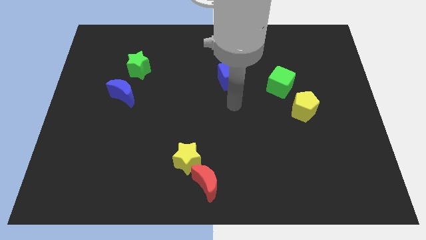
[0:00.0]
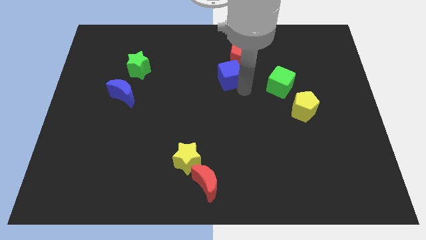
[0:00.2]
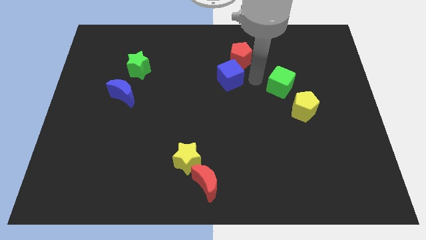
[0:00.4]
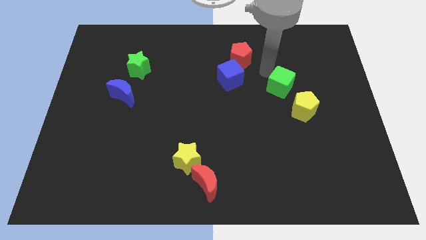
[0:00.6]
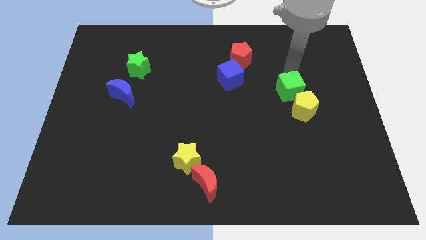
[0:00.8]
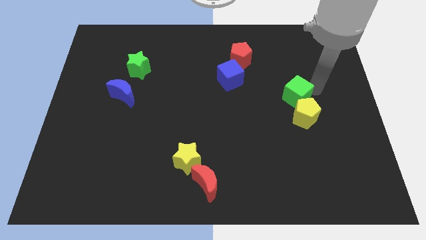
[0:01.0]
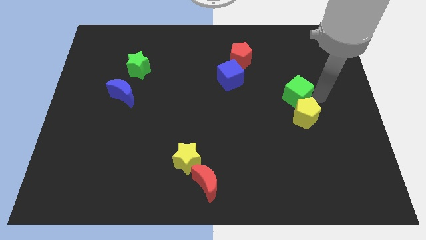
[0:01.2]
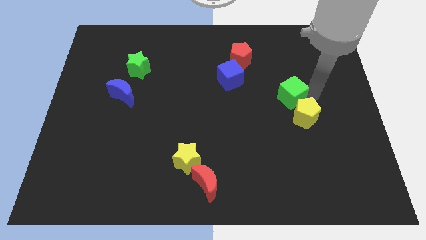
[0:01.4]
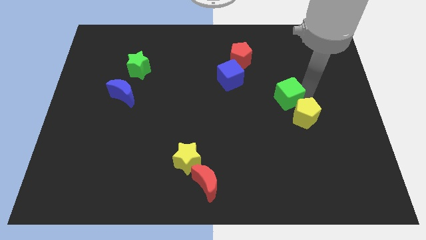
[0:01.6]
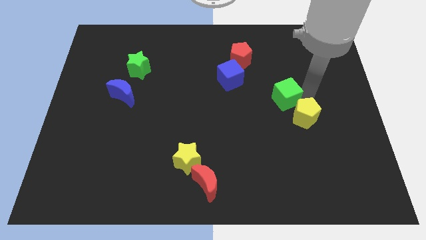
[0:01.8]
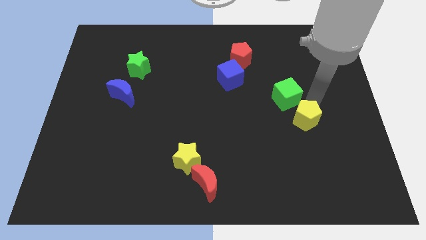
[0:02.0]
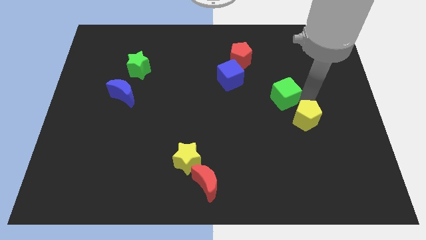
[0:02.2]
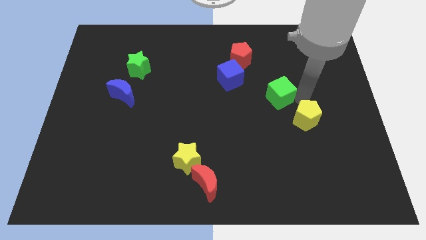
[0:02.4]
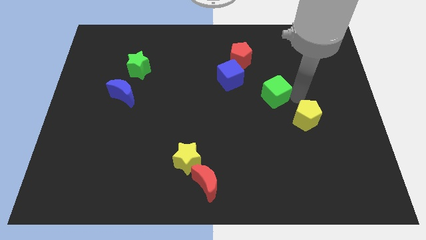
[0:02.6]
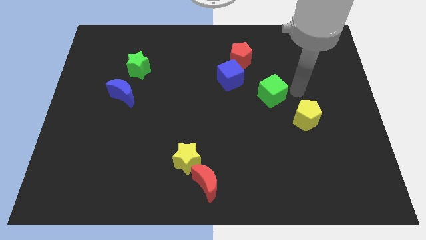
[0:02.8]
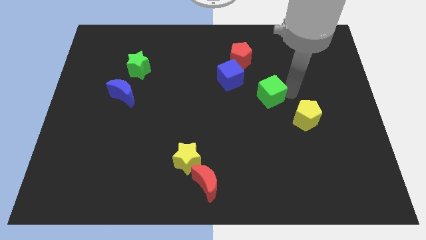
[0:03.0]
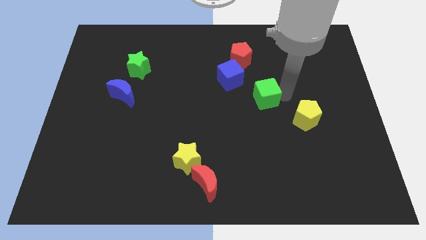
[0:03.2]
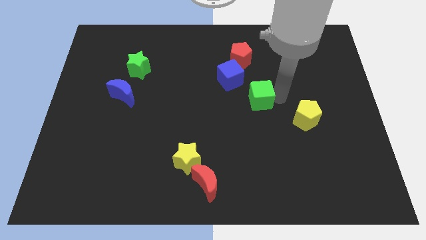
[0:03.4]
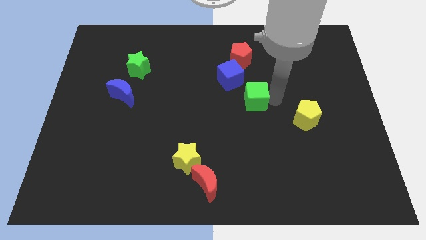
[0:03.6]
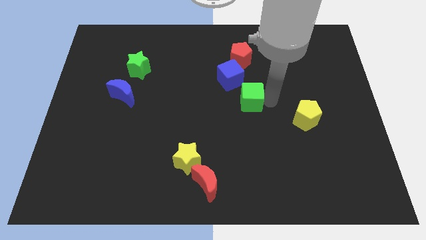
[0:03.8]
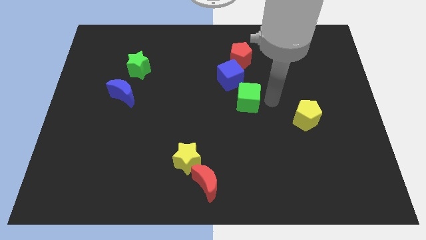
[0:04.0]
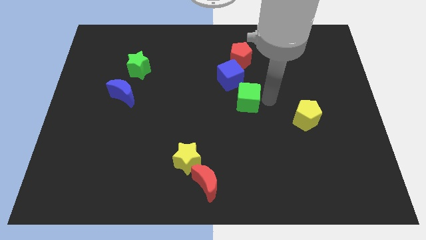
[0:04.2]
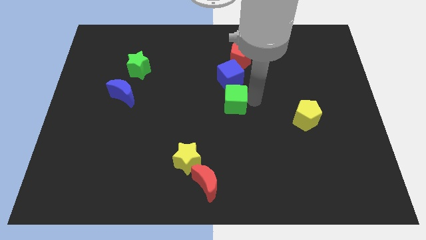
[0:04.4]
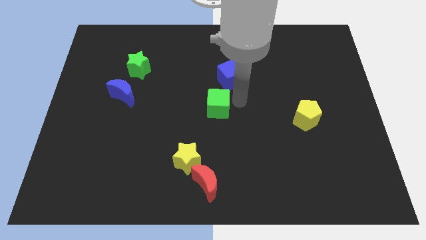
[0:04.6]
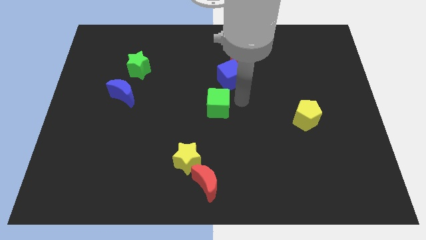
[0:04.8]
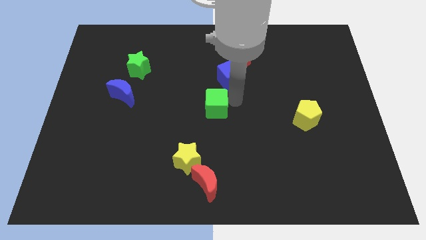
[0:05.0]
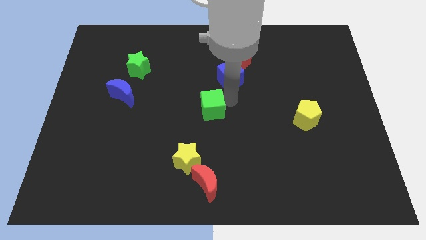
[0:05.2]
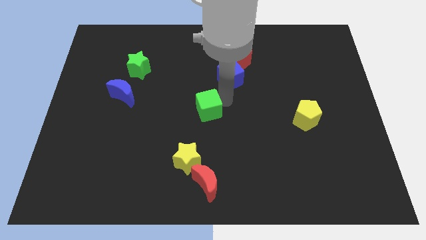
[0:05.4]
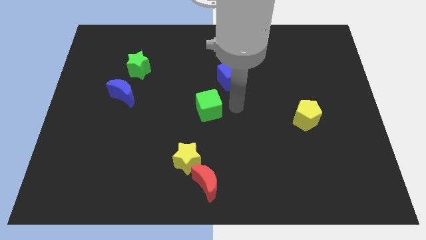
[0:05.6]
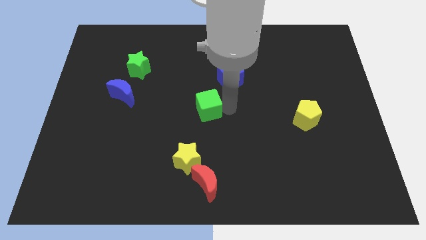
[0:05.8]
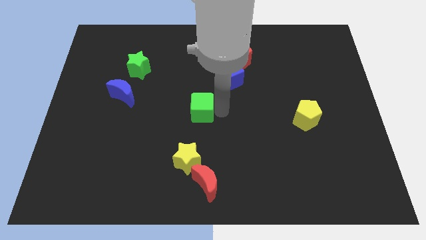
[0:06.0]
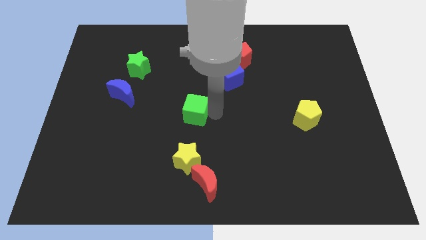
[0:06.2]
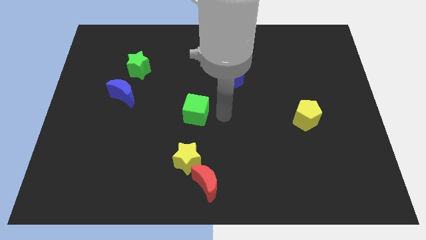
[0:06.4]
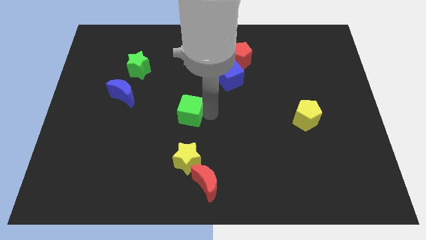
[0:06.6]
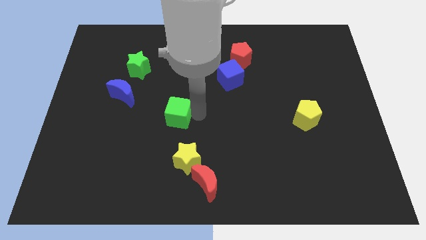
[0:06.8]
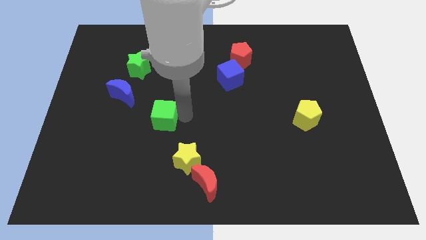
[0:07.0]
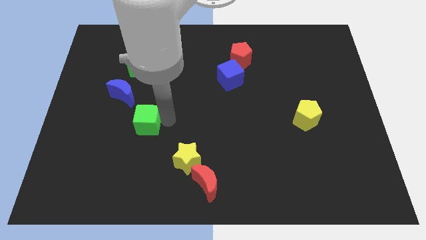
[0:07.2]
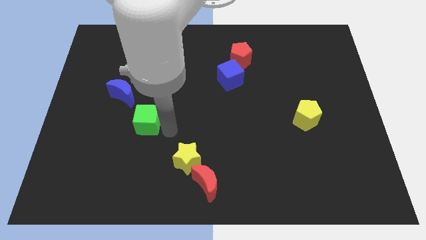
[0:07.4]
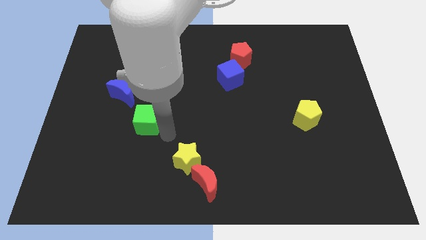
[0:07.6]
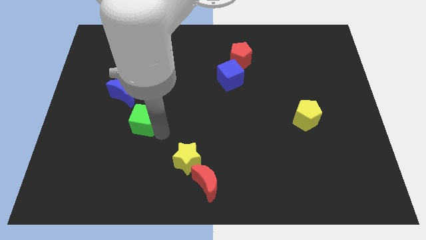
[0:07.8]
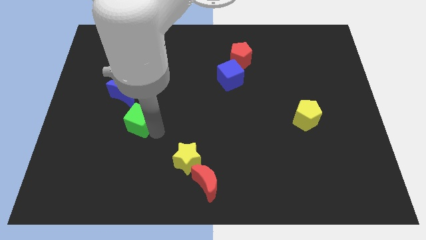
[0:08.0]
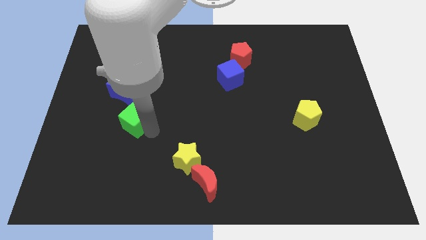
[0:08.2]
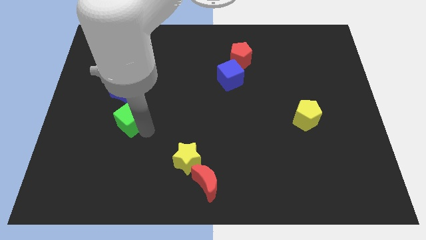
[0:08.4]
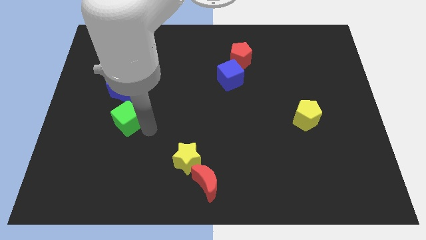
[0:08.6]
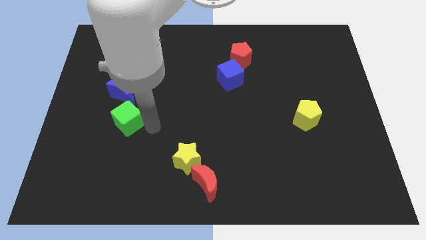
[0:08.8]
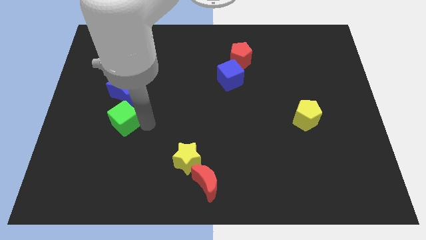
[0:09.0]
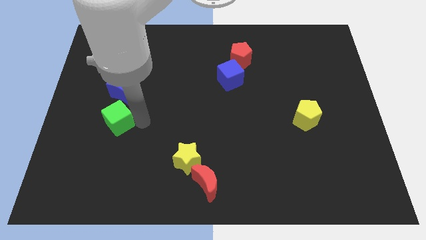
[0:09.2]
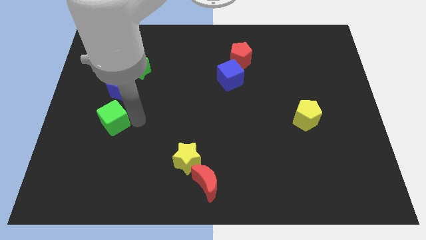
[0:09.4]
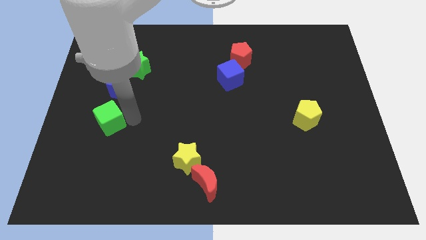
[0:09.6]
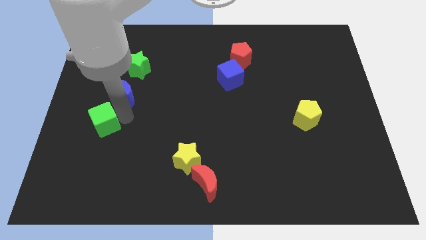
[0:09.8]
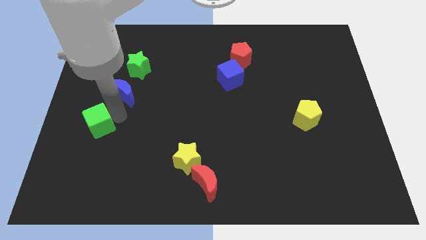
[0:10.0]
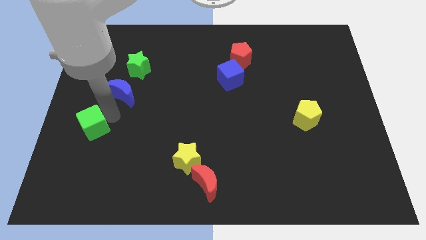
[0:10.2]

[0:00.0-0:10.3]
move the green cube to the left side of the board

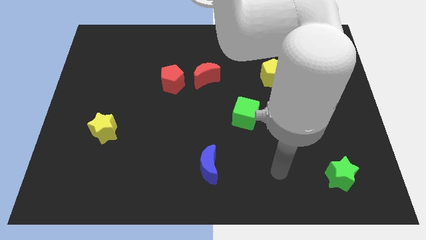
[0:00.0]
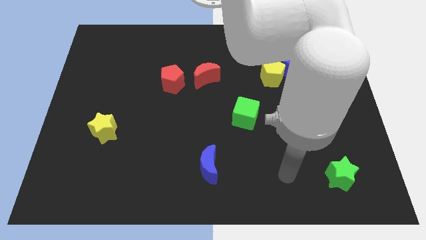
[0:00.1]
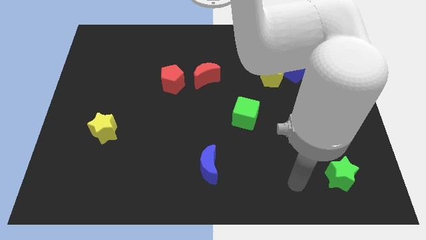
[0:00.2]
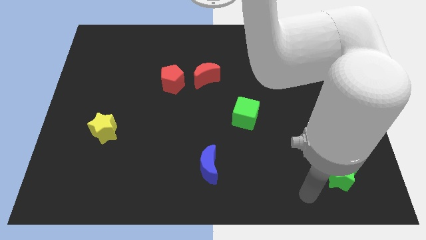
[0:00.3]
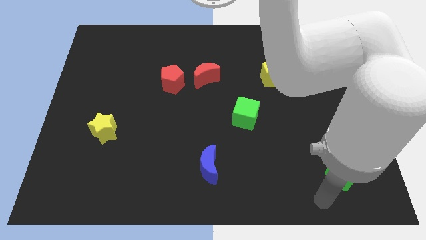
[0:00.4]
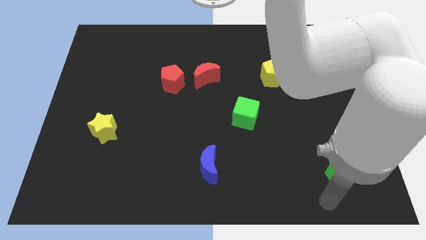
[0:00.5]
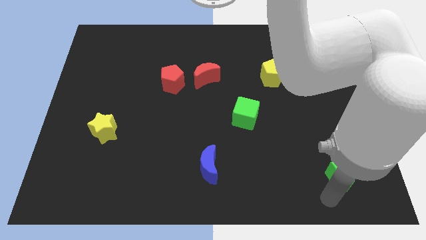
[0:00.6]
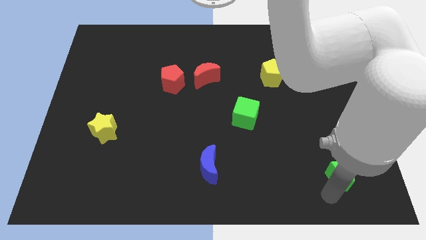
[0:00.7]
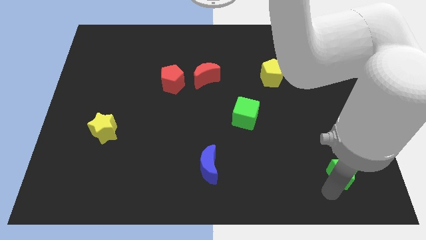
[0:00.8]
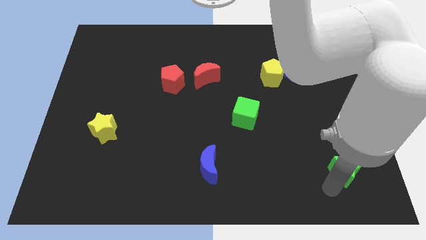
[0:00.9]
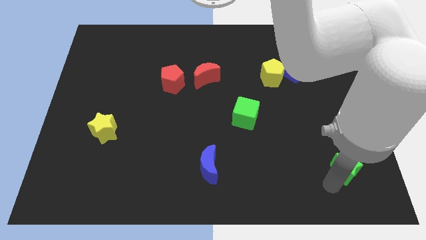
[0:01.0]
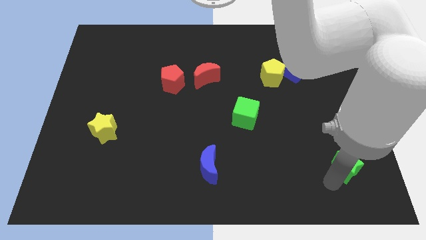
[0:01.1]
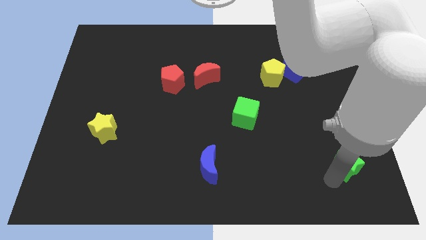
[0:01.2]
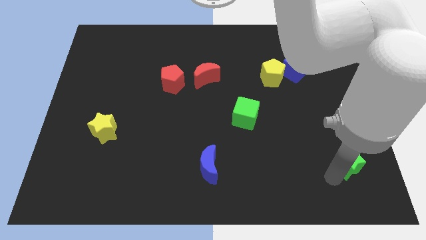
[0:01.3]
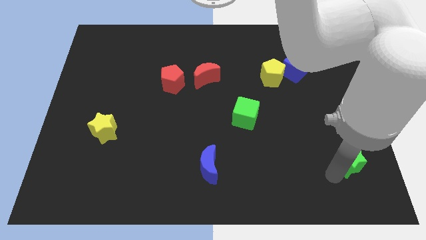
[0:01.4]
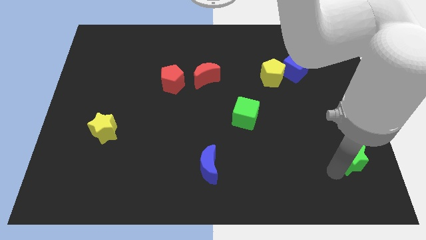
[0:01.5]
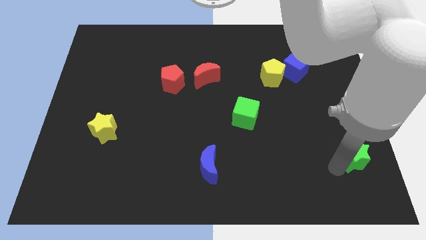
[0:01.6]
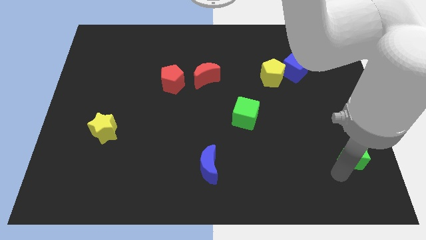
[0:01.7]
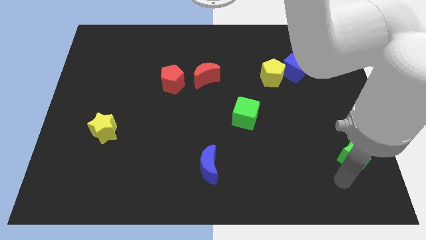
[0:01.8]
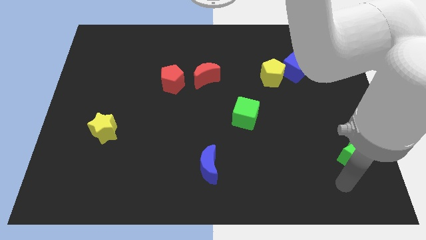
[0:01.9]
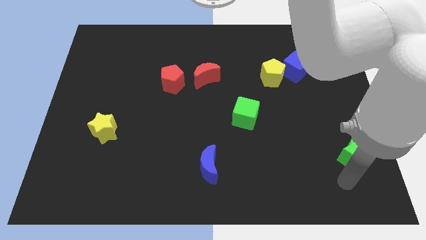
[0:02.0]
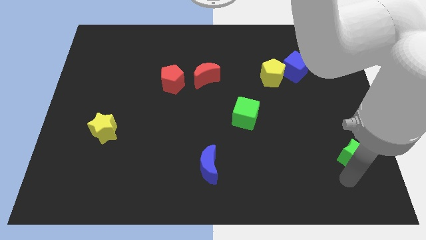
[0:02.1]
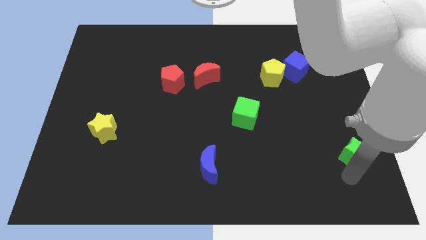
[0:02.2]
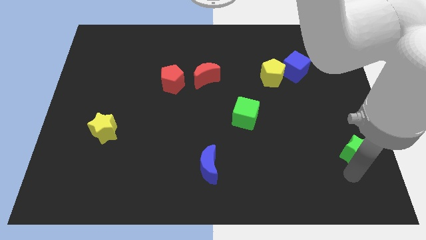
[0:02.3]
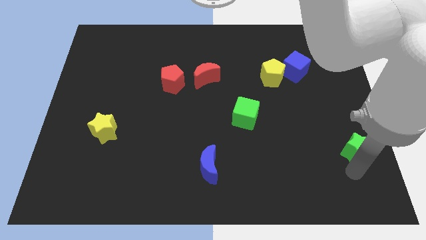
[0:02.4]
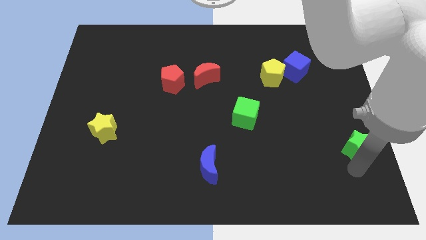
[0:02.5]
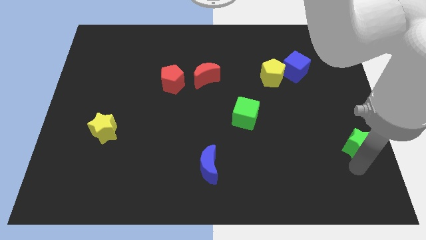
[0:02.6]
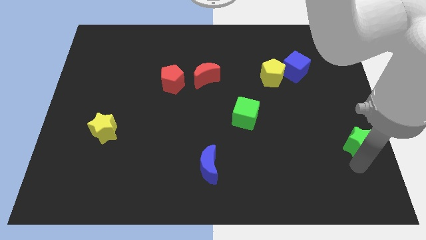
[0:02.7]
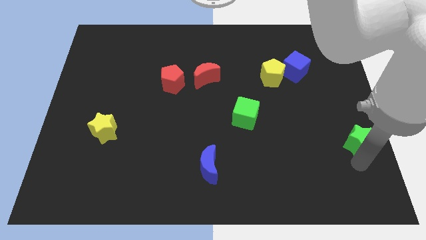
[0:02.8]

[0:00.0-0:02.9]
slide the green star to the center right
